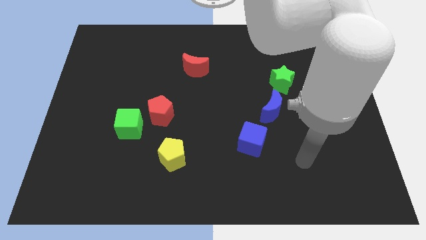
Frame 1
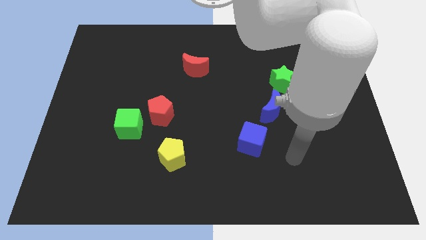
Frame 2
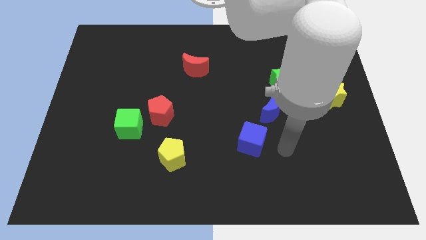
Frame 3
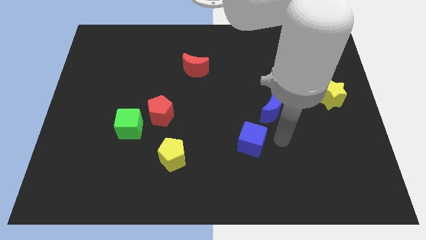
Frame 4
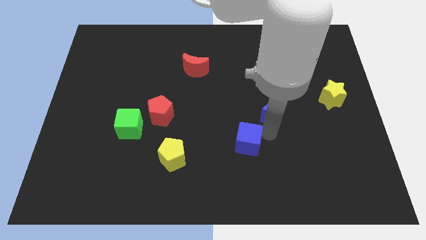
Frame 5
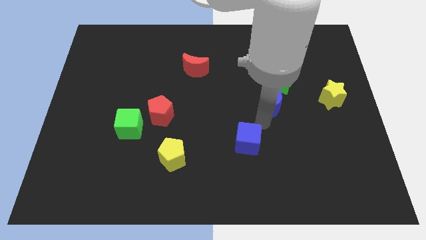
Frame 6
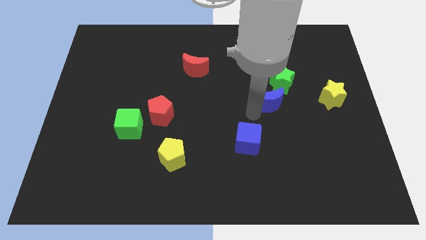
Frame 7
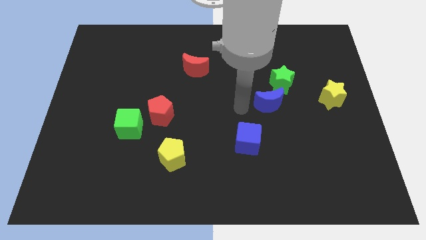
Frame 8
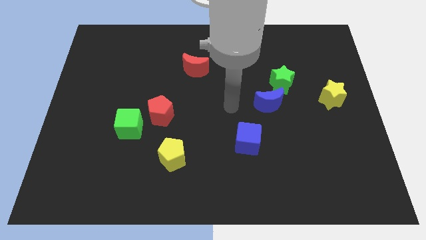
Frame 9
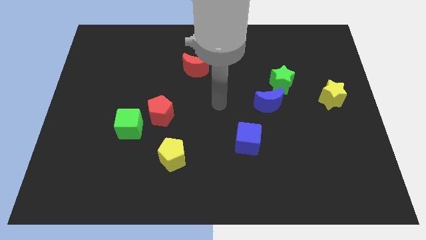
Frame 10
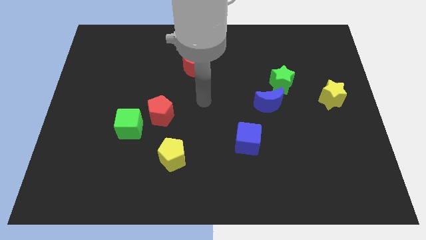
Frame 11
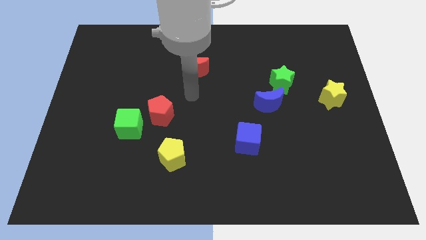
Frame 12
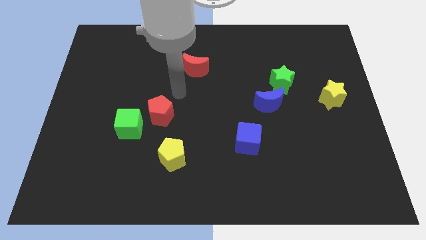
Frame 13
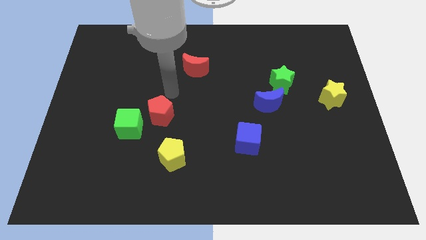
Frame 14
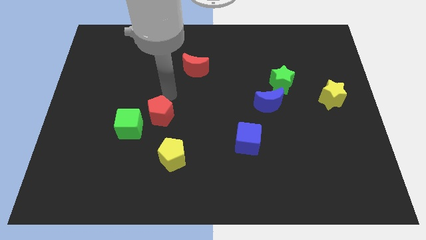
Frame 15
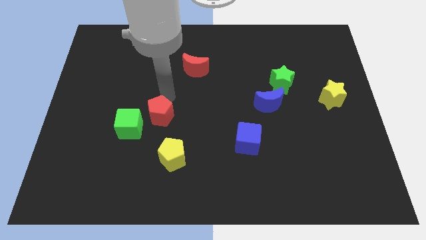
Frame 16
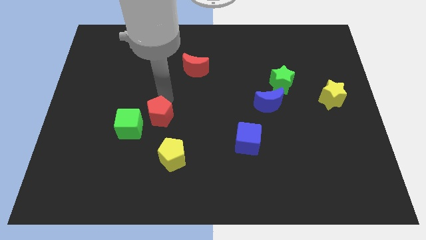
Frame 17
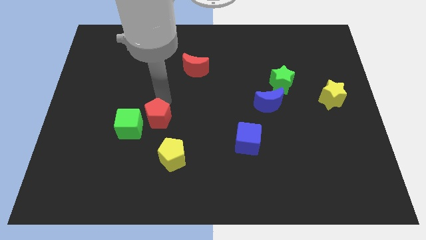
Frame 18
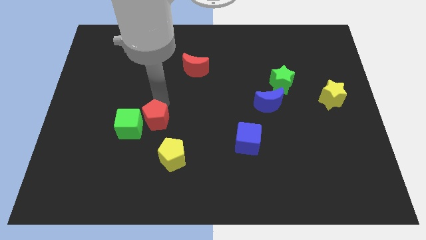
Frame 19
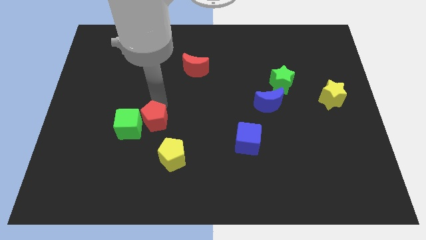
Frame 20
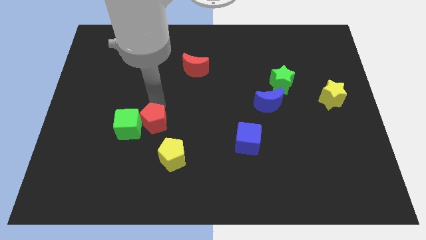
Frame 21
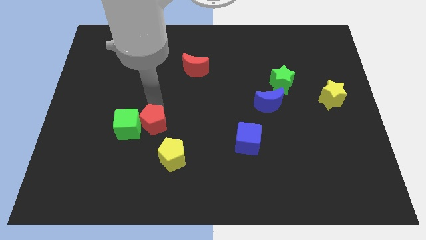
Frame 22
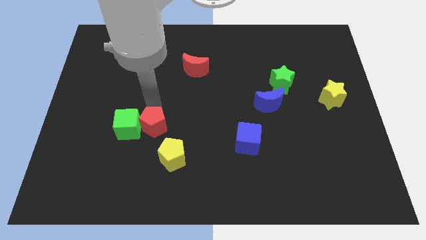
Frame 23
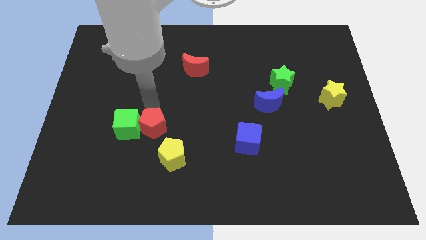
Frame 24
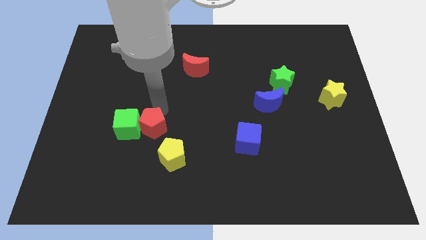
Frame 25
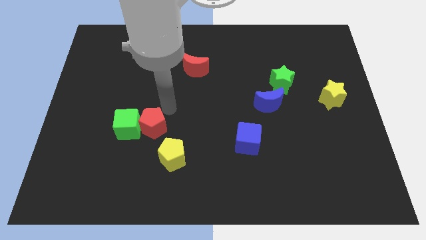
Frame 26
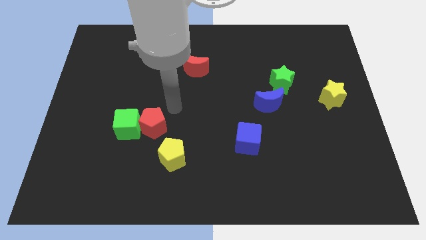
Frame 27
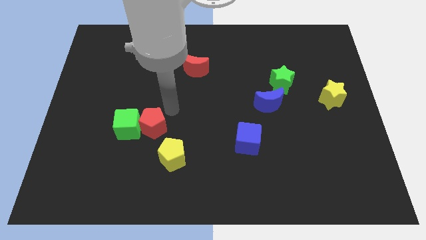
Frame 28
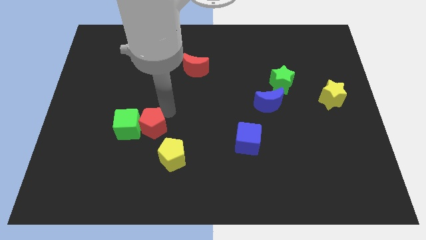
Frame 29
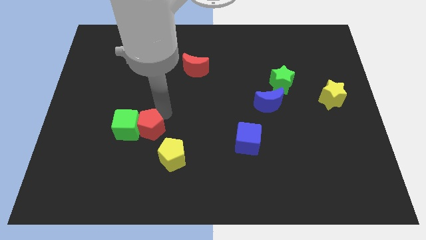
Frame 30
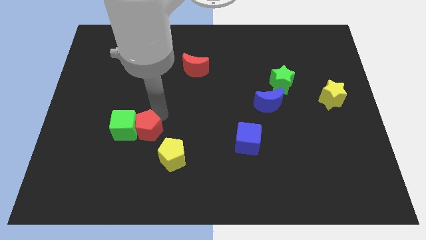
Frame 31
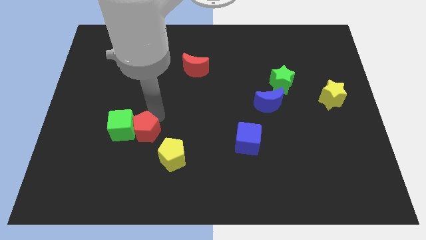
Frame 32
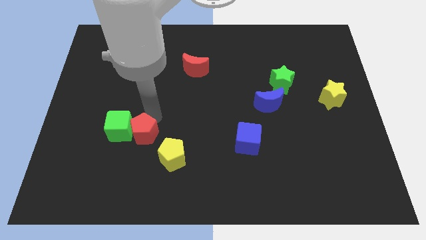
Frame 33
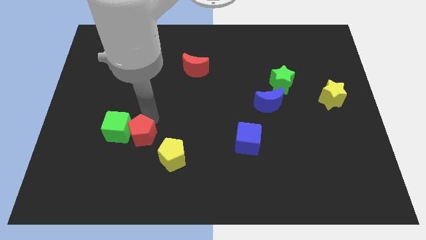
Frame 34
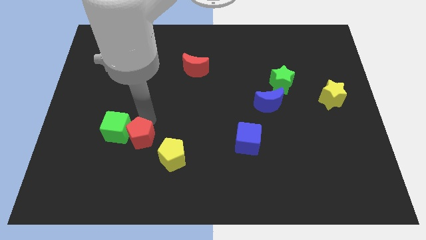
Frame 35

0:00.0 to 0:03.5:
push the red pentagon slightly downwards and to the left

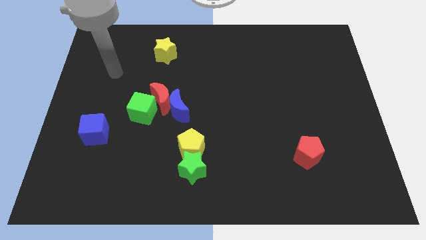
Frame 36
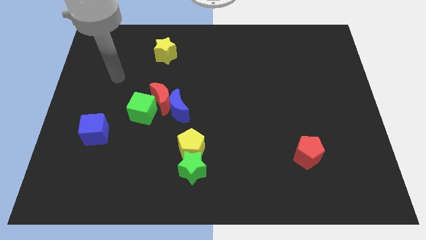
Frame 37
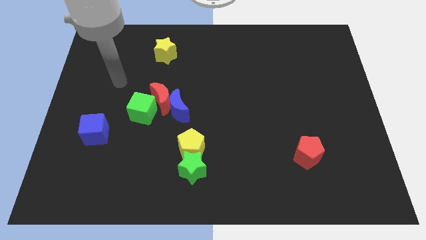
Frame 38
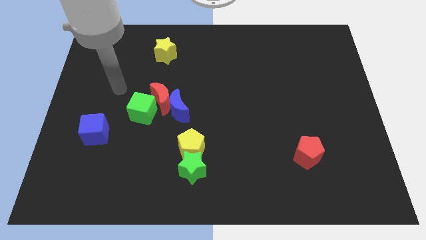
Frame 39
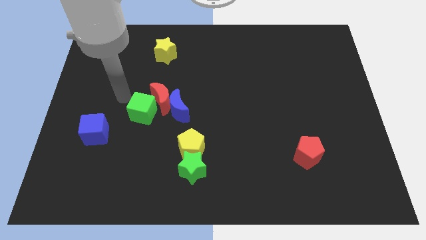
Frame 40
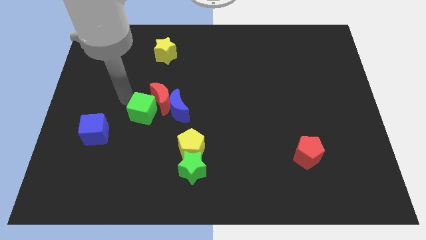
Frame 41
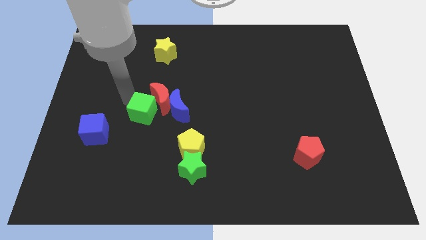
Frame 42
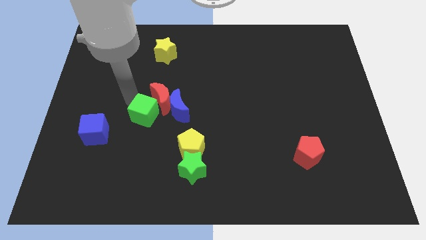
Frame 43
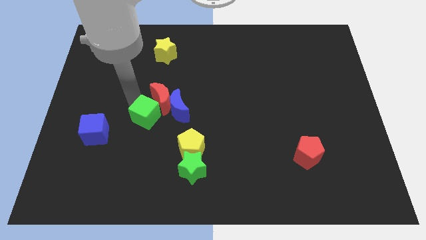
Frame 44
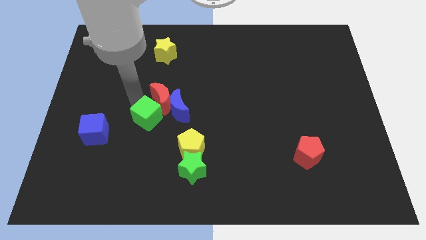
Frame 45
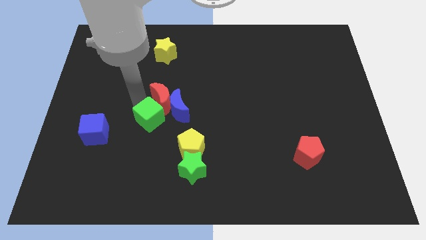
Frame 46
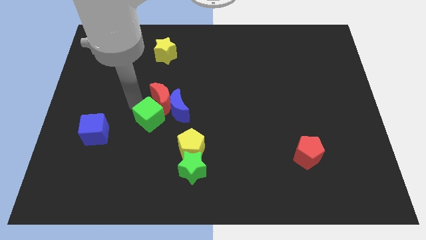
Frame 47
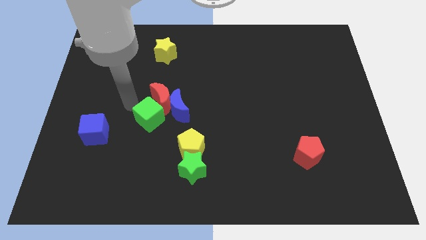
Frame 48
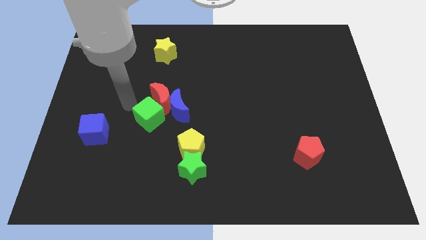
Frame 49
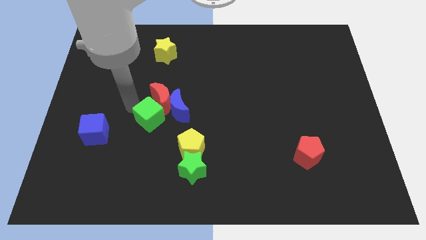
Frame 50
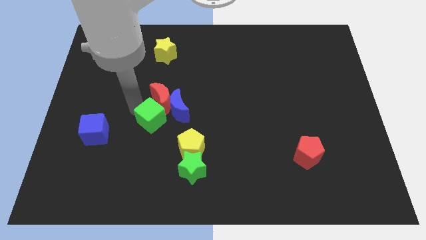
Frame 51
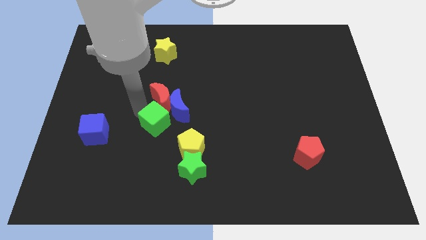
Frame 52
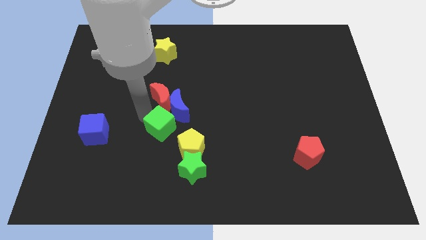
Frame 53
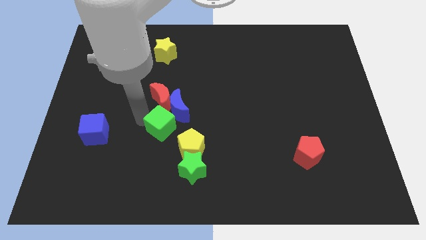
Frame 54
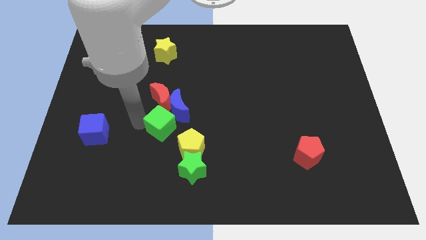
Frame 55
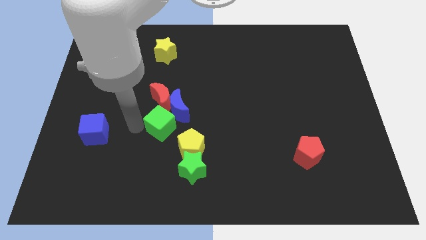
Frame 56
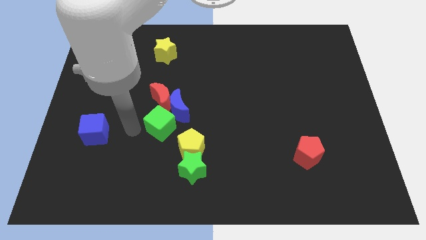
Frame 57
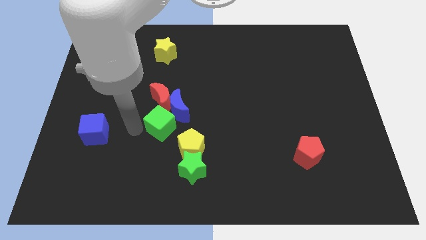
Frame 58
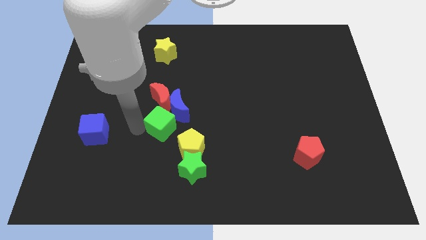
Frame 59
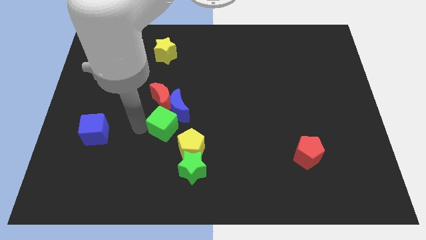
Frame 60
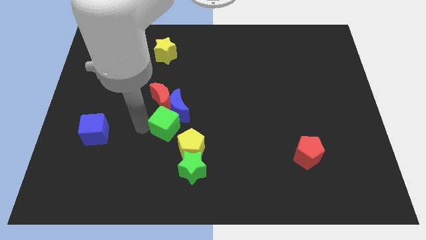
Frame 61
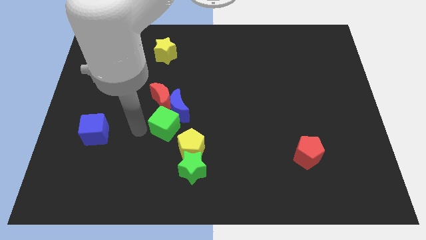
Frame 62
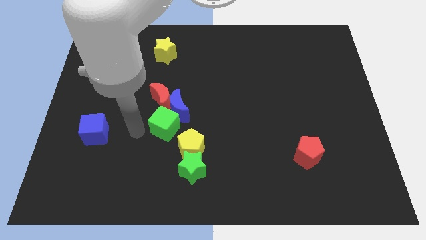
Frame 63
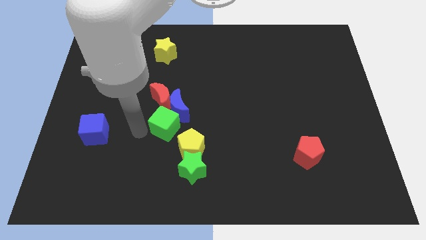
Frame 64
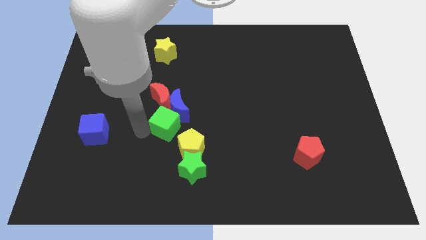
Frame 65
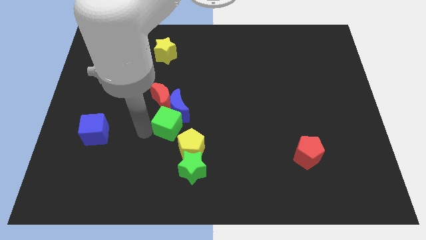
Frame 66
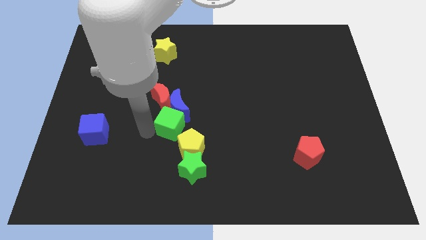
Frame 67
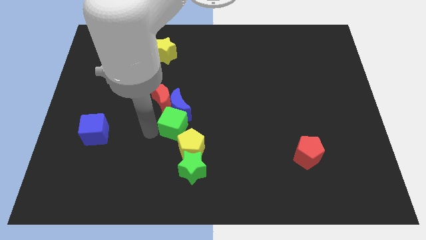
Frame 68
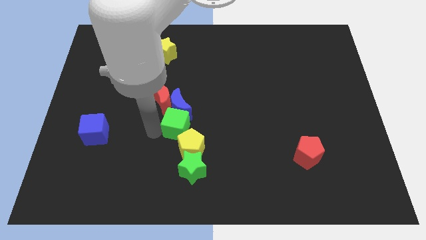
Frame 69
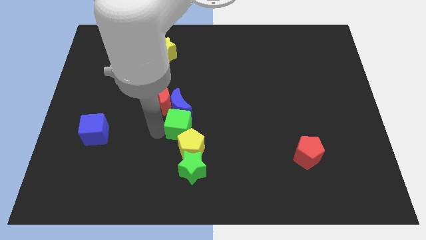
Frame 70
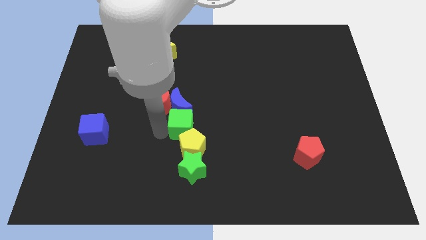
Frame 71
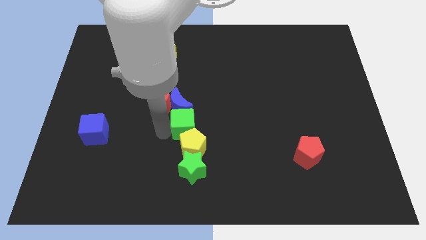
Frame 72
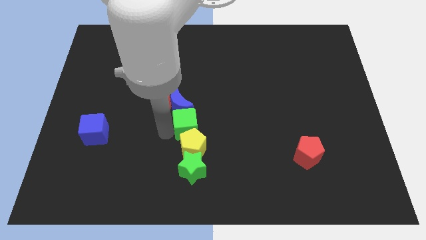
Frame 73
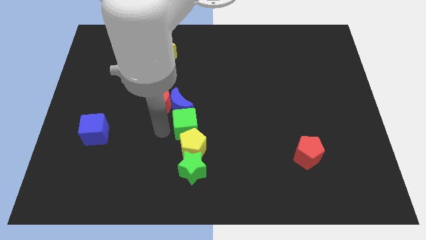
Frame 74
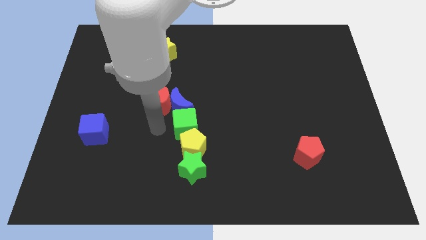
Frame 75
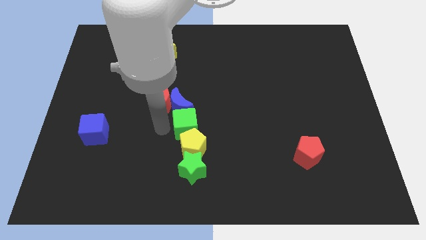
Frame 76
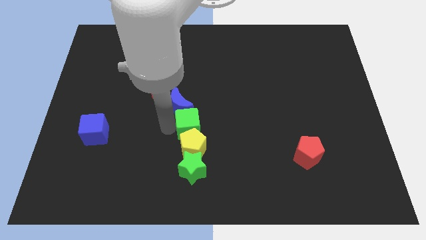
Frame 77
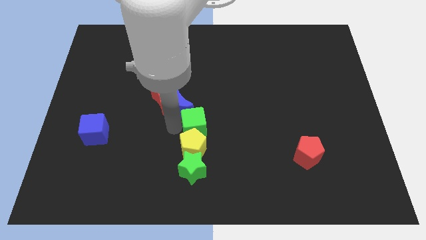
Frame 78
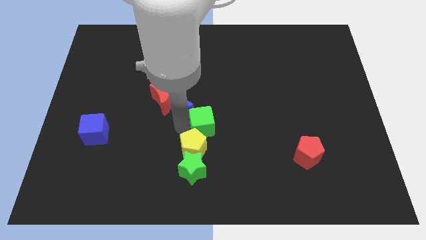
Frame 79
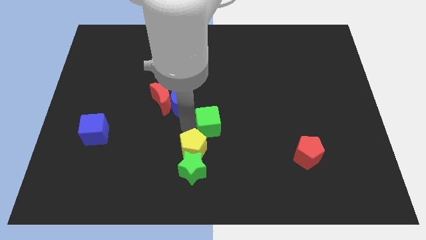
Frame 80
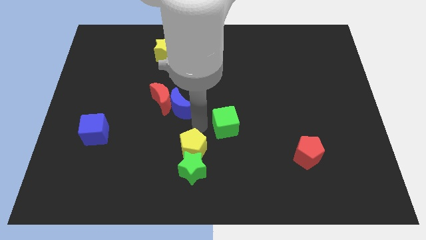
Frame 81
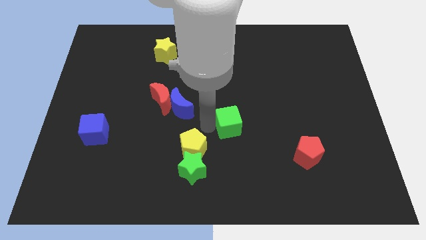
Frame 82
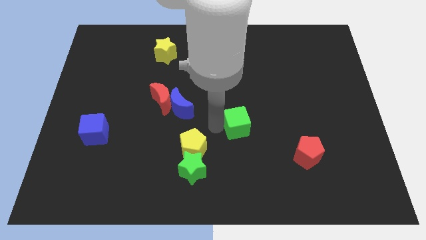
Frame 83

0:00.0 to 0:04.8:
move the green cube right
